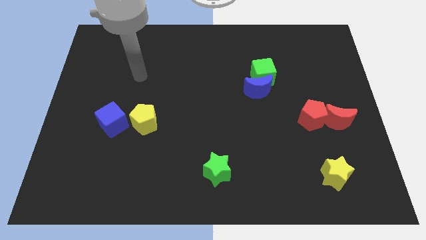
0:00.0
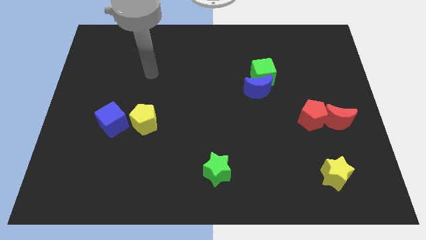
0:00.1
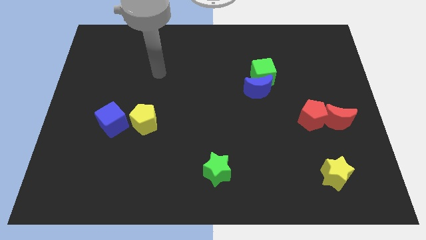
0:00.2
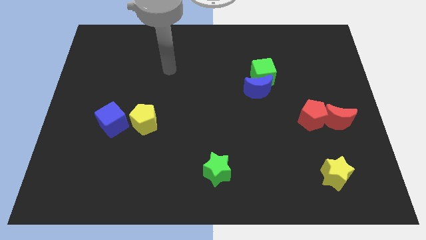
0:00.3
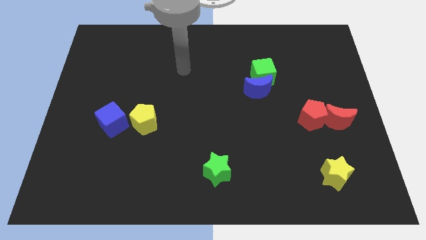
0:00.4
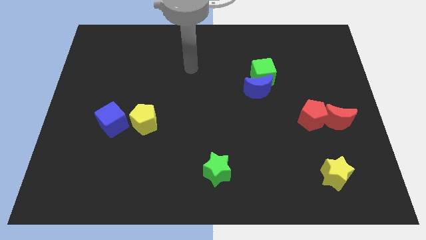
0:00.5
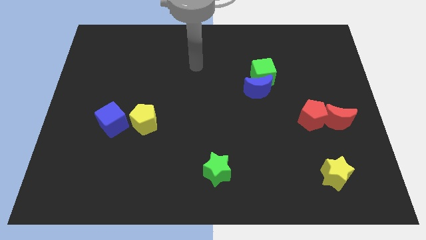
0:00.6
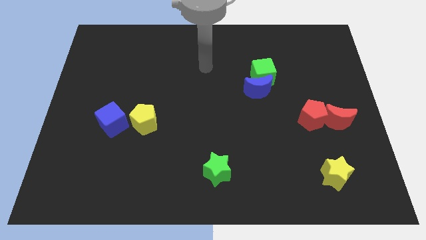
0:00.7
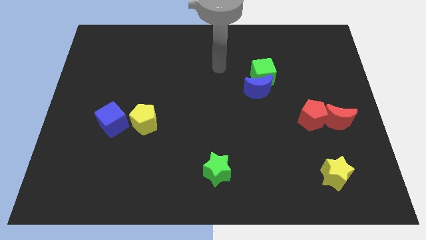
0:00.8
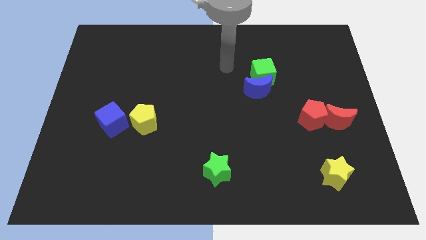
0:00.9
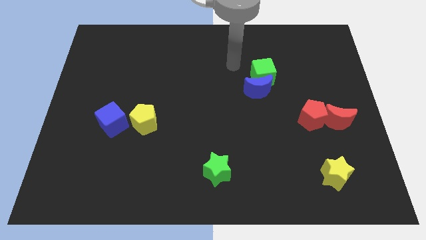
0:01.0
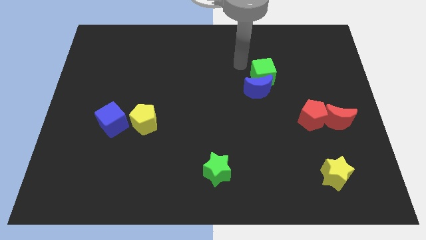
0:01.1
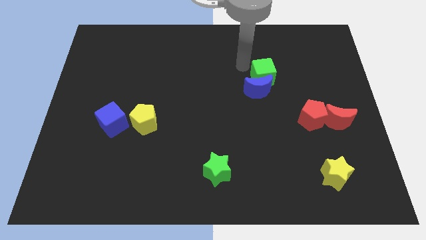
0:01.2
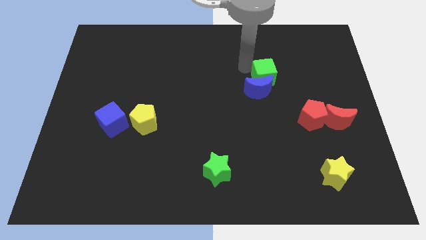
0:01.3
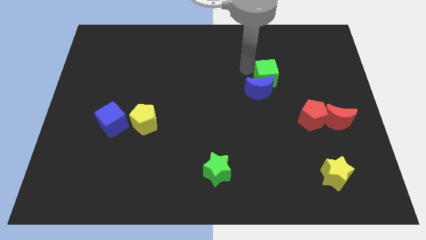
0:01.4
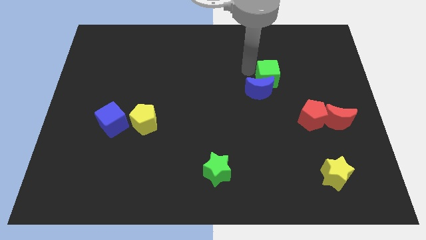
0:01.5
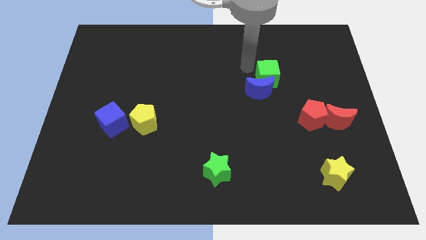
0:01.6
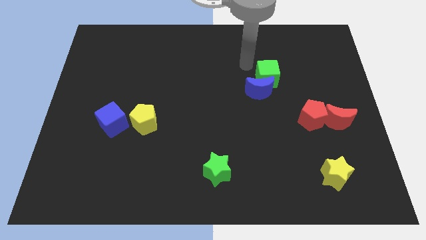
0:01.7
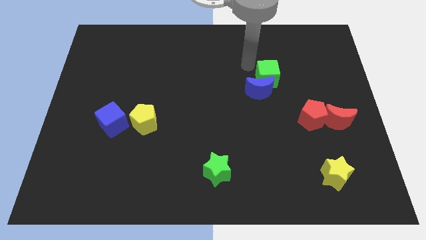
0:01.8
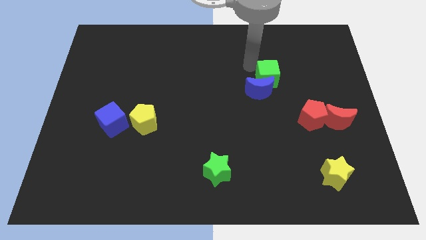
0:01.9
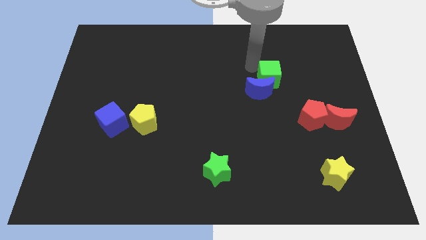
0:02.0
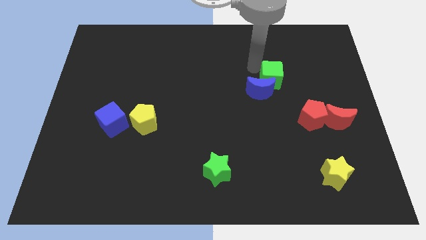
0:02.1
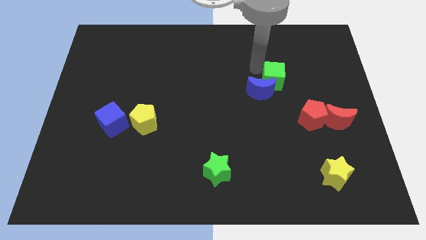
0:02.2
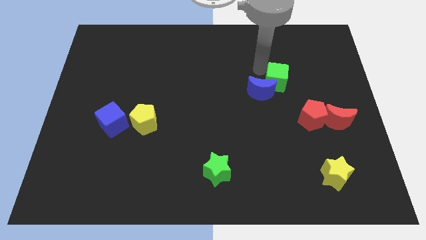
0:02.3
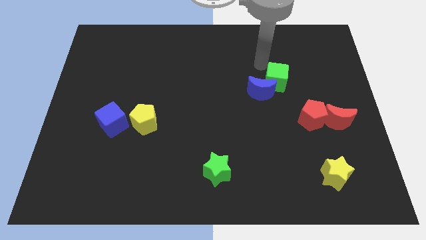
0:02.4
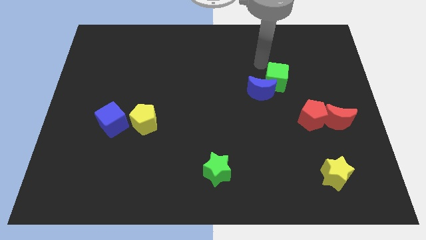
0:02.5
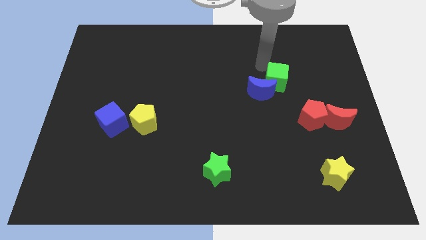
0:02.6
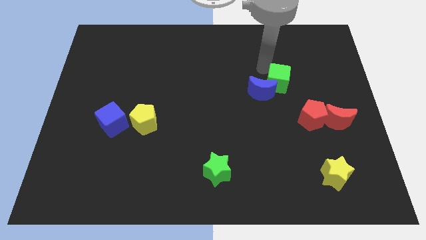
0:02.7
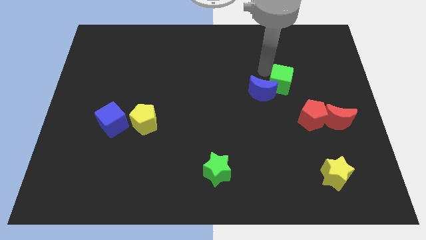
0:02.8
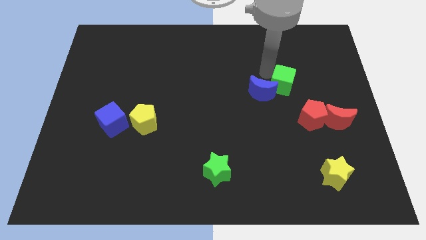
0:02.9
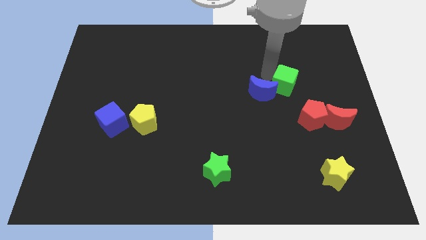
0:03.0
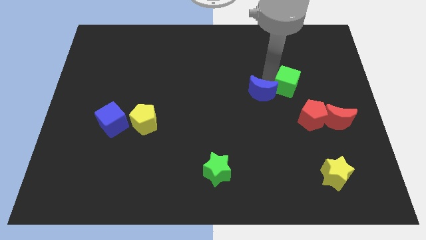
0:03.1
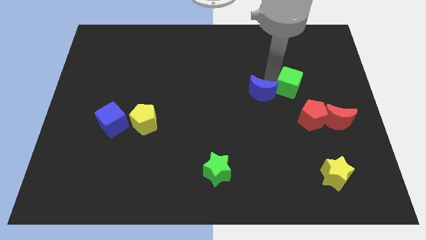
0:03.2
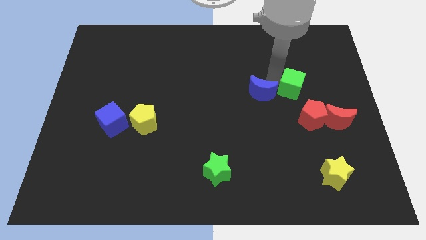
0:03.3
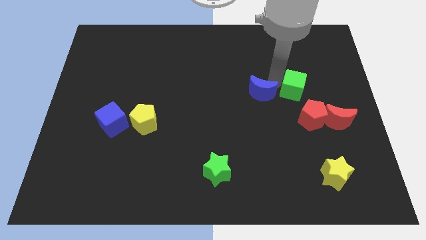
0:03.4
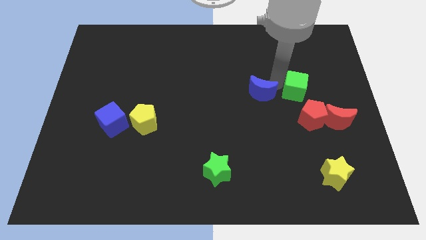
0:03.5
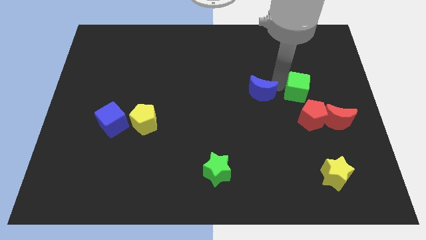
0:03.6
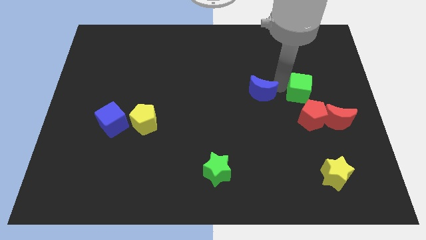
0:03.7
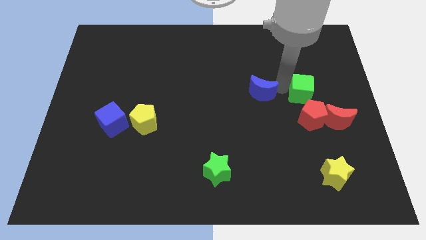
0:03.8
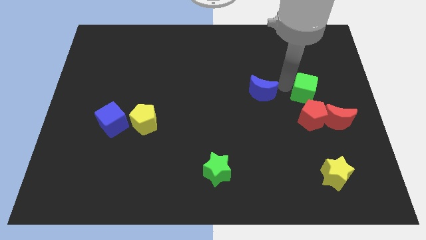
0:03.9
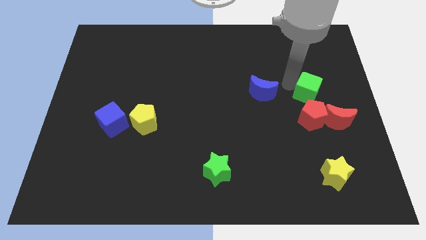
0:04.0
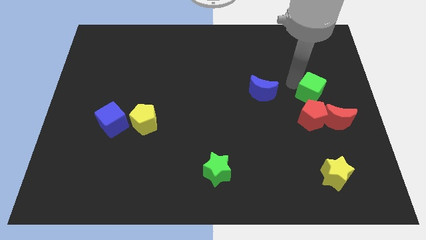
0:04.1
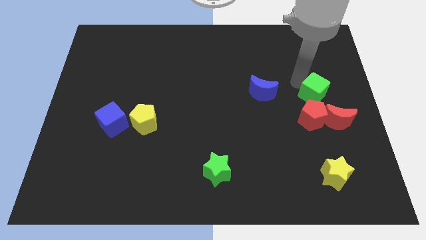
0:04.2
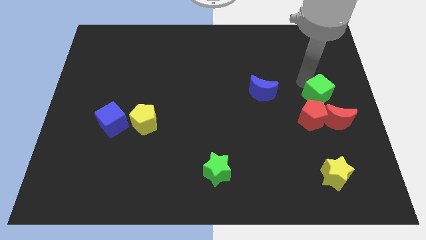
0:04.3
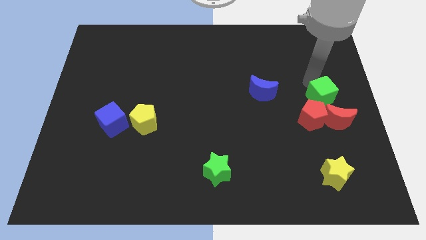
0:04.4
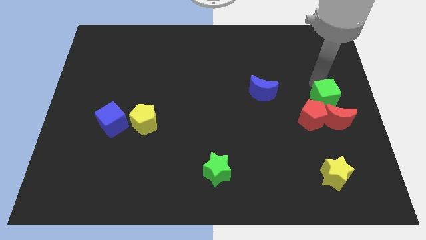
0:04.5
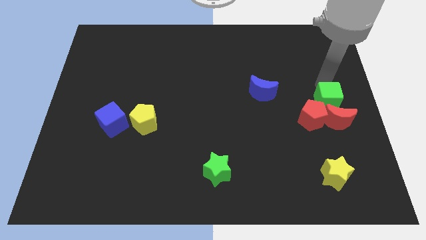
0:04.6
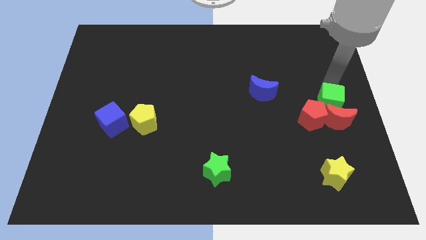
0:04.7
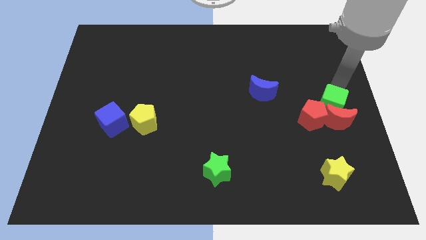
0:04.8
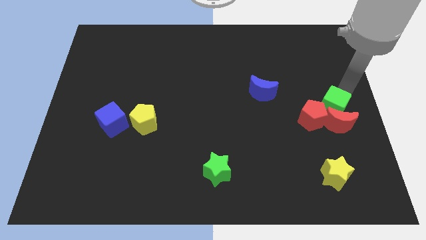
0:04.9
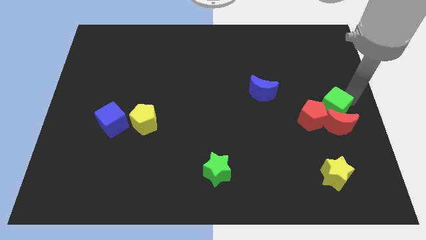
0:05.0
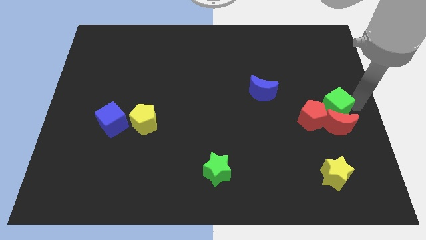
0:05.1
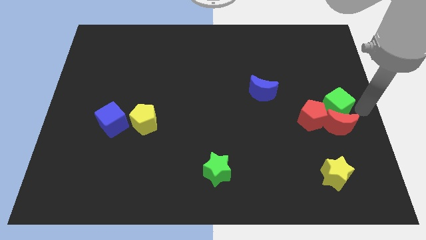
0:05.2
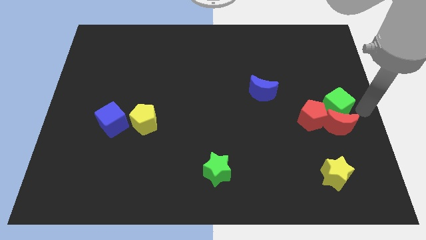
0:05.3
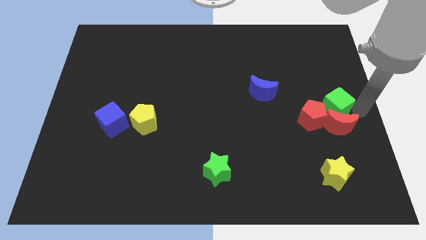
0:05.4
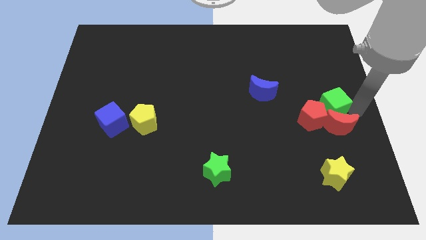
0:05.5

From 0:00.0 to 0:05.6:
put the green cube close to the red pentagon

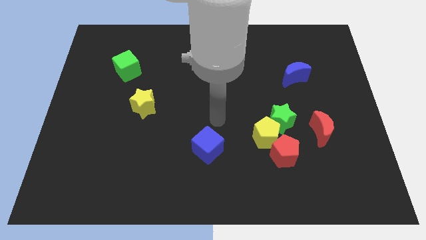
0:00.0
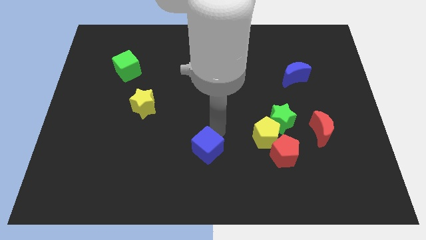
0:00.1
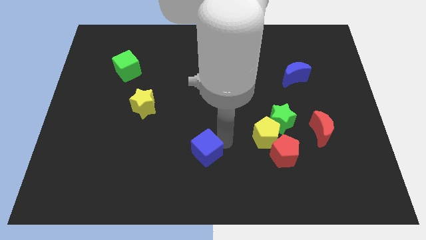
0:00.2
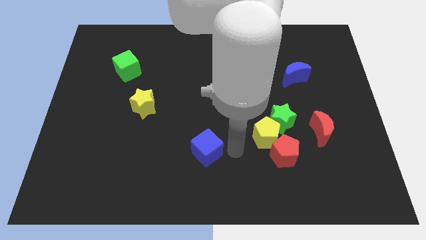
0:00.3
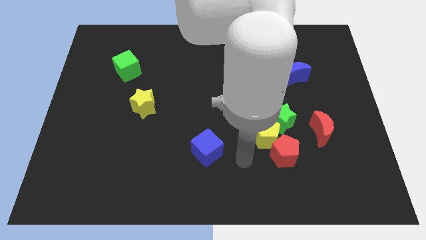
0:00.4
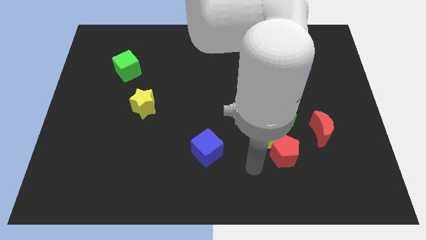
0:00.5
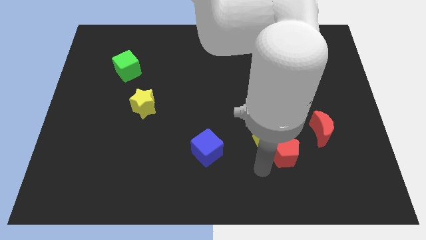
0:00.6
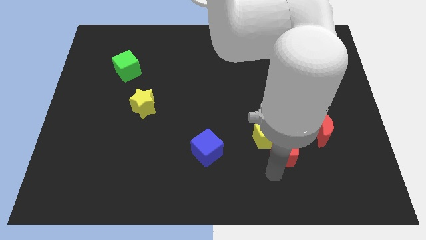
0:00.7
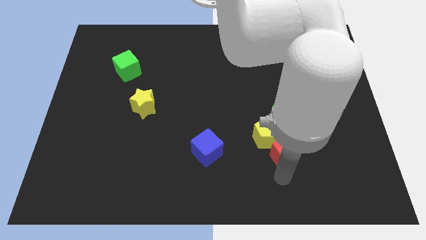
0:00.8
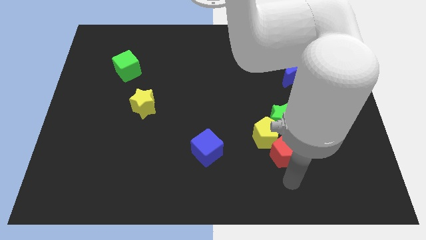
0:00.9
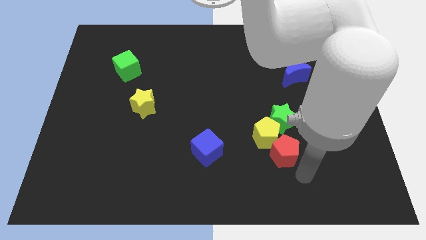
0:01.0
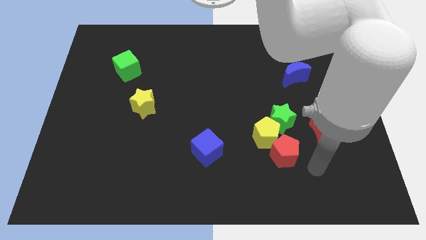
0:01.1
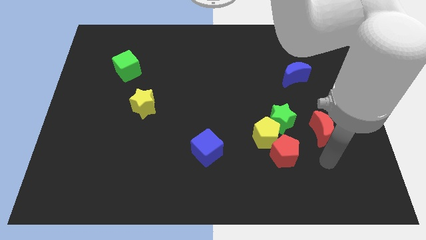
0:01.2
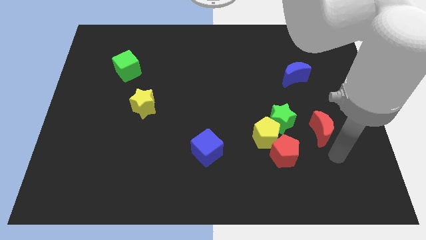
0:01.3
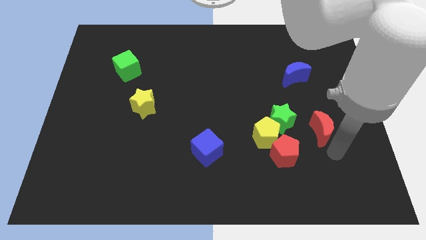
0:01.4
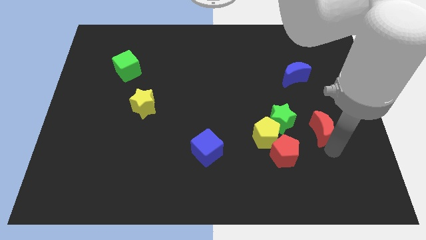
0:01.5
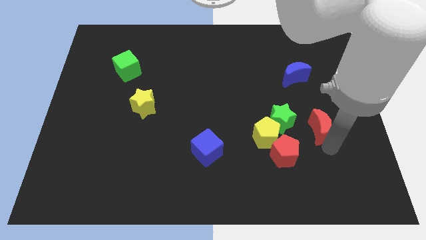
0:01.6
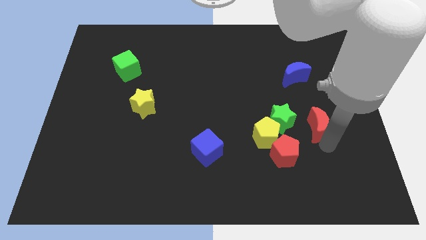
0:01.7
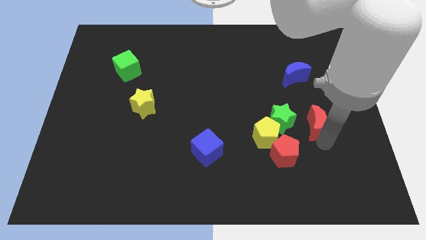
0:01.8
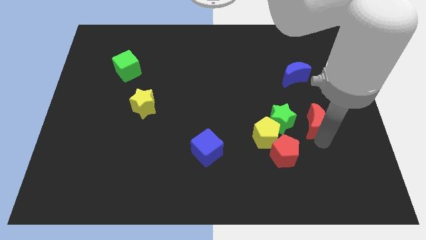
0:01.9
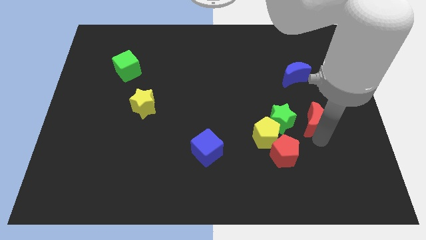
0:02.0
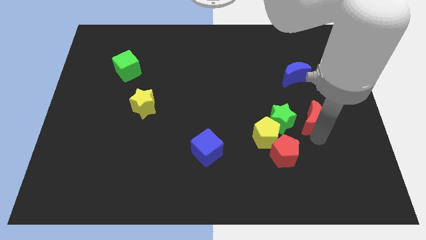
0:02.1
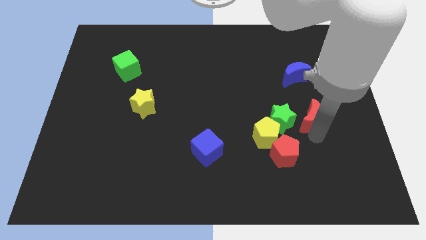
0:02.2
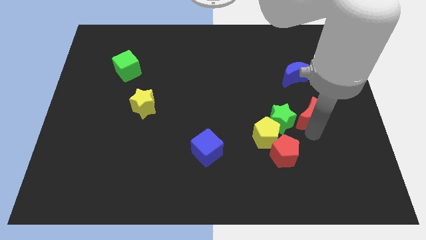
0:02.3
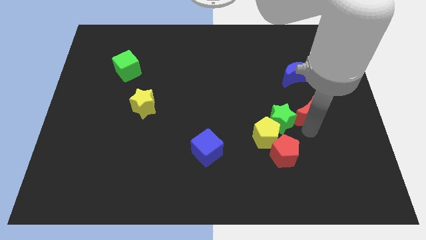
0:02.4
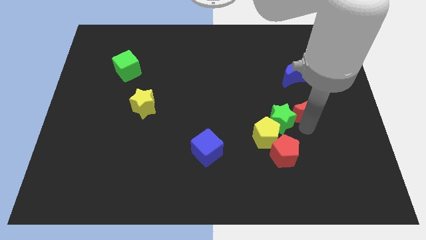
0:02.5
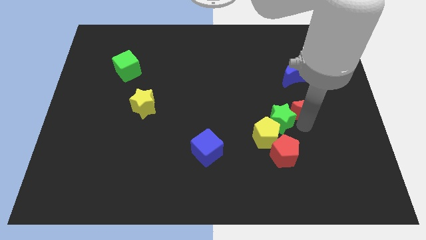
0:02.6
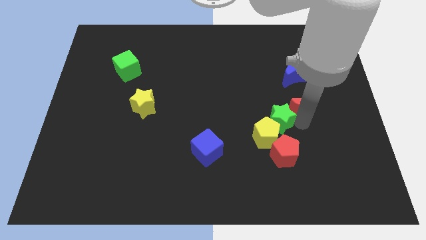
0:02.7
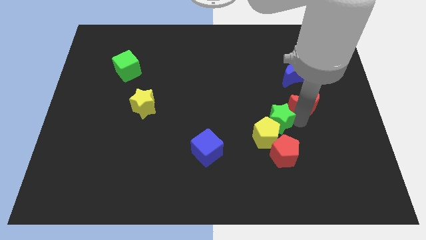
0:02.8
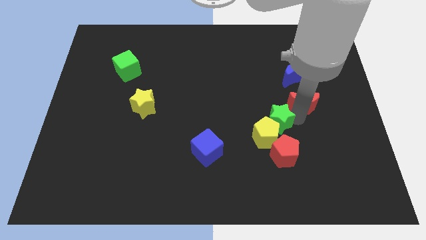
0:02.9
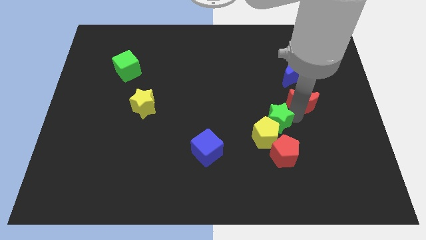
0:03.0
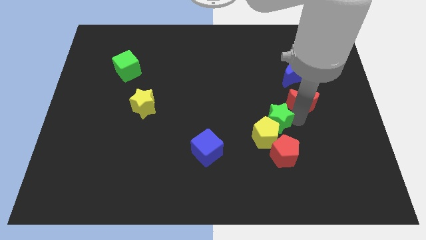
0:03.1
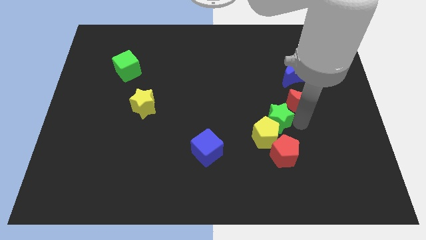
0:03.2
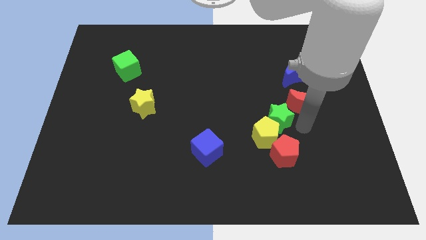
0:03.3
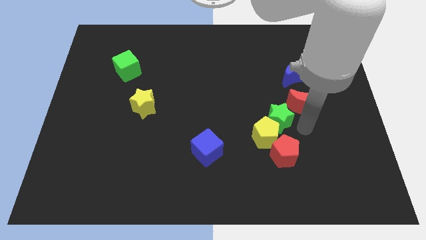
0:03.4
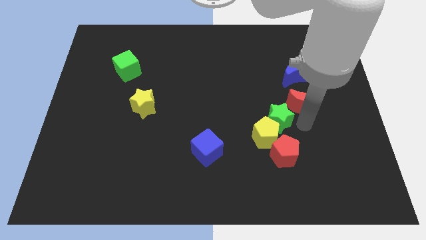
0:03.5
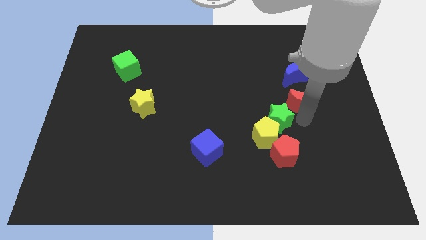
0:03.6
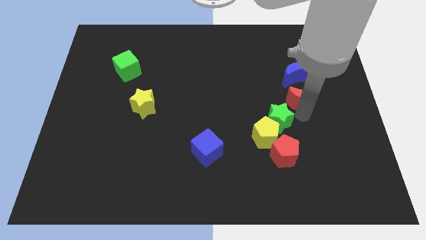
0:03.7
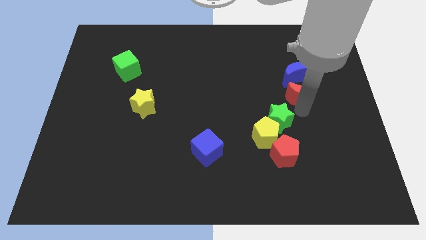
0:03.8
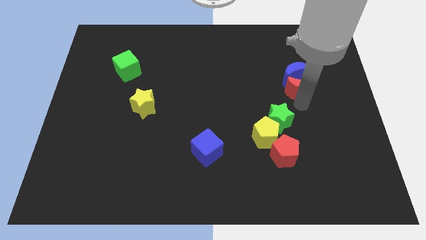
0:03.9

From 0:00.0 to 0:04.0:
slide the red moon next to the blue moon
